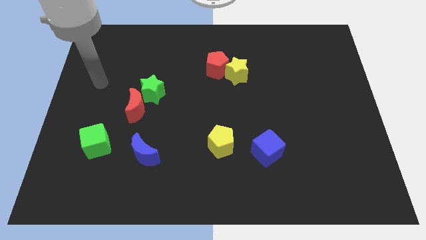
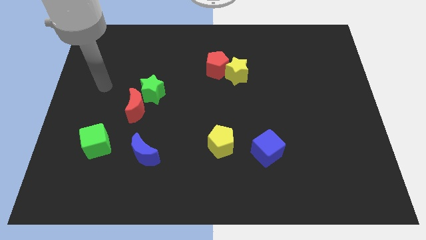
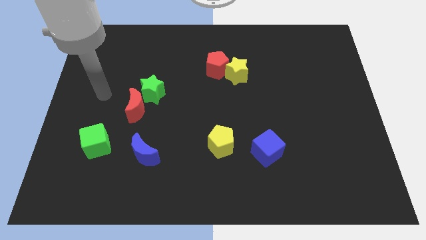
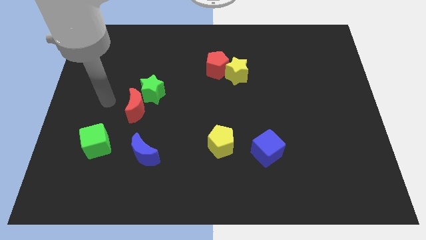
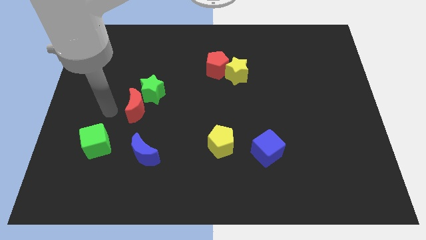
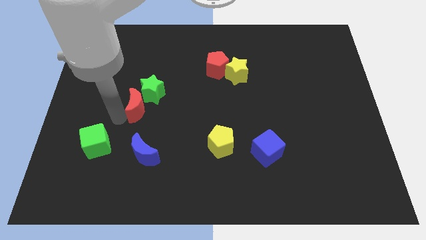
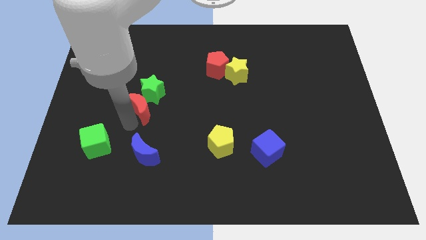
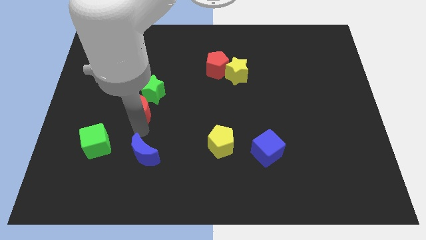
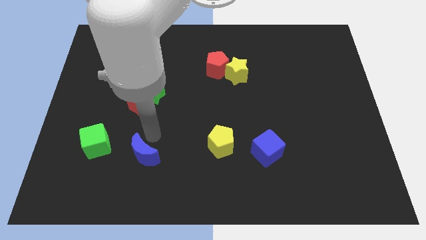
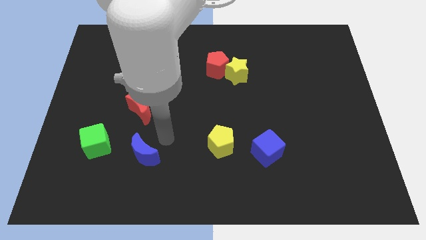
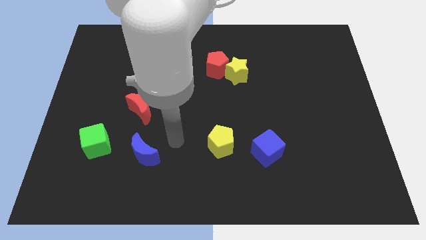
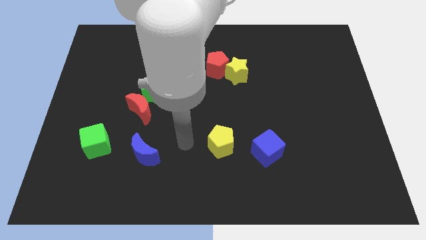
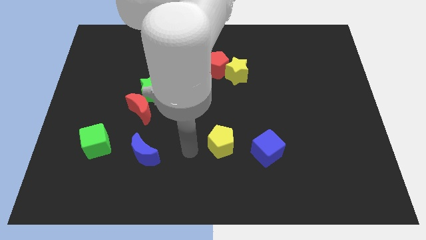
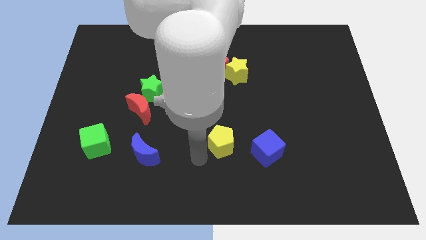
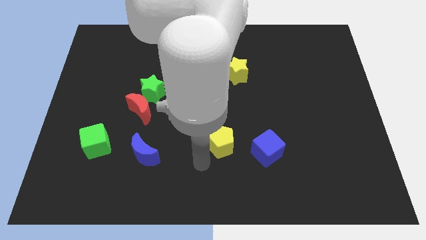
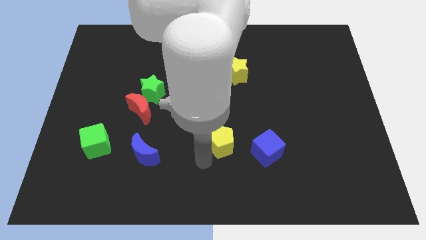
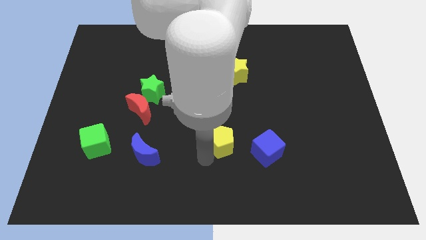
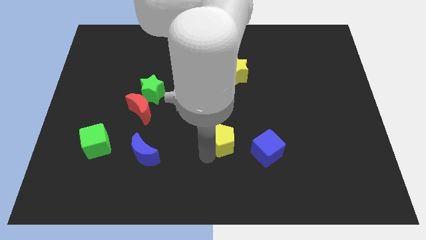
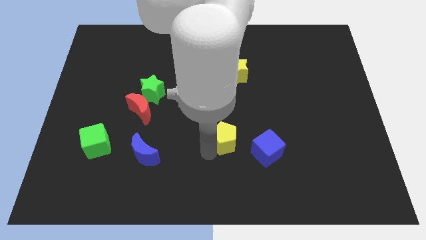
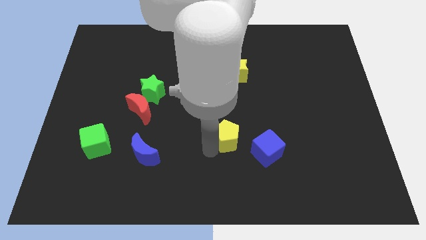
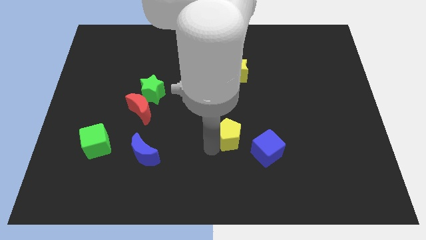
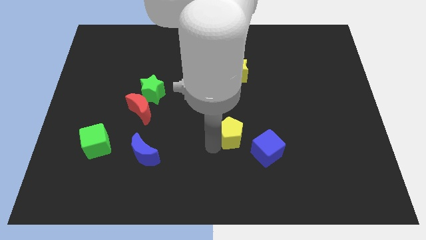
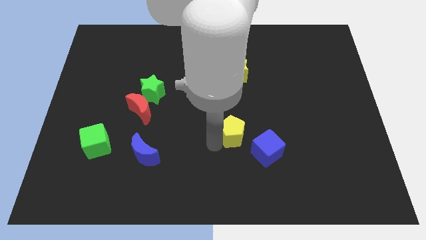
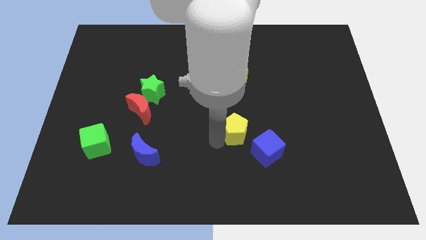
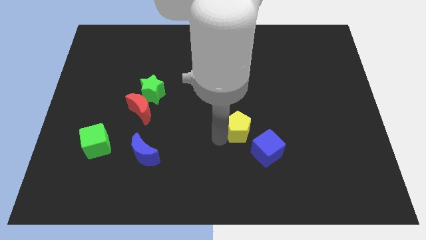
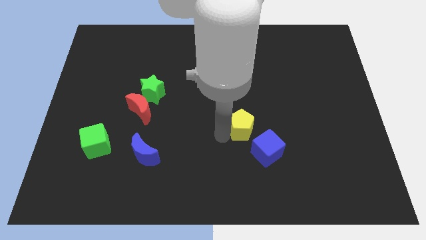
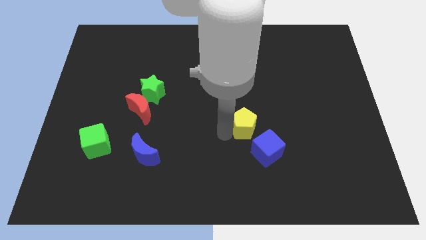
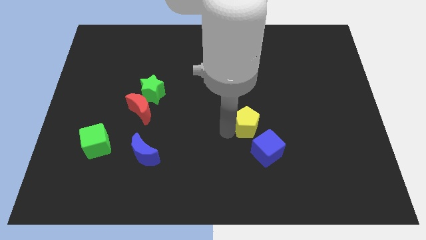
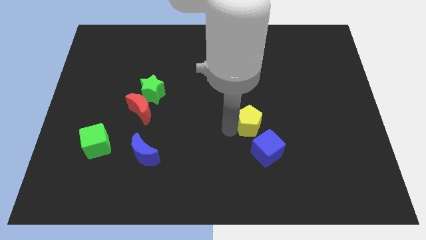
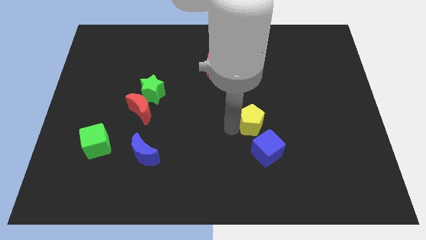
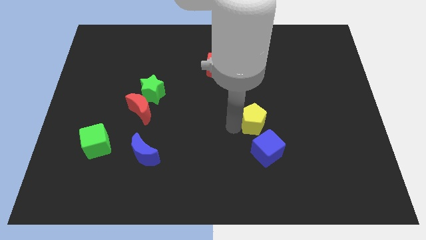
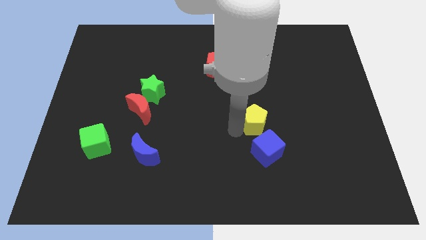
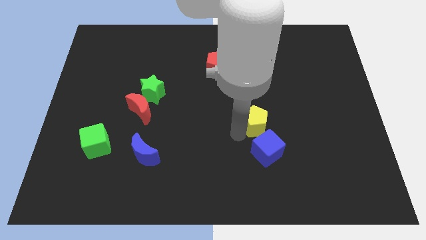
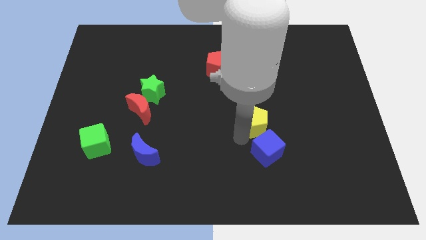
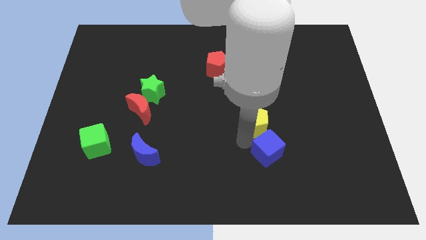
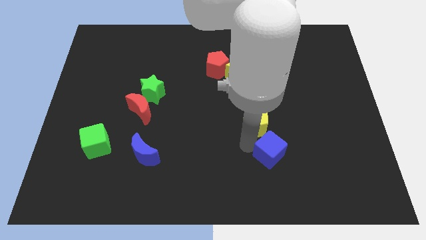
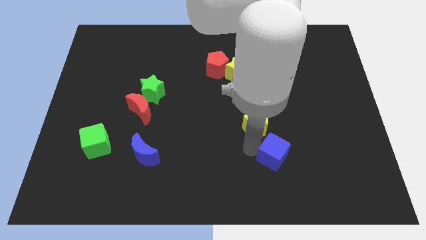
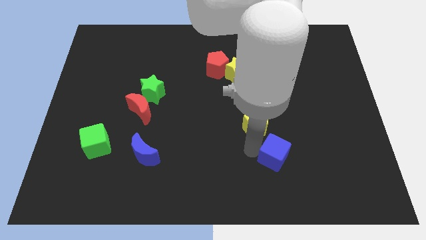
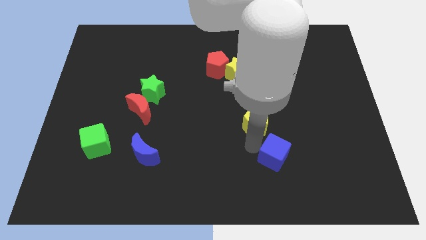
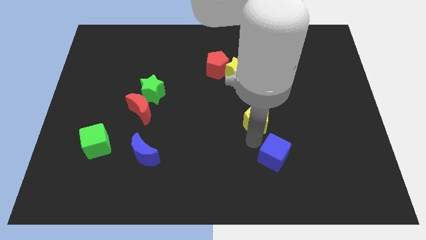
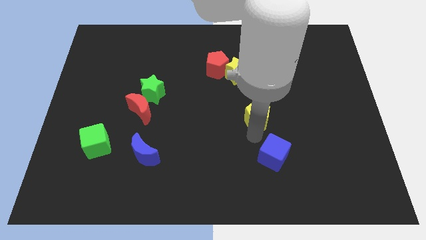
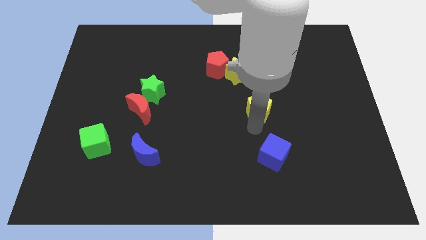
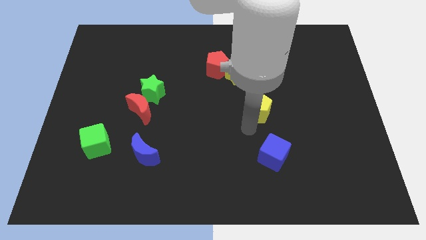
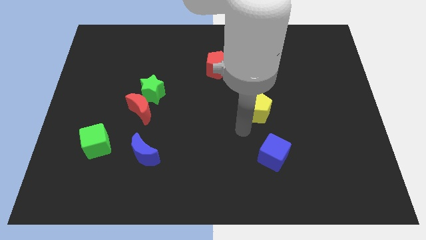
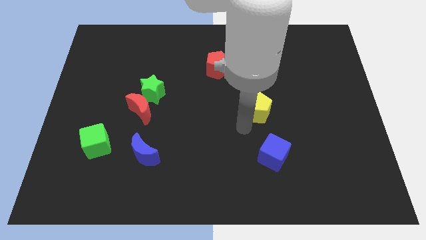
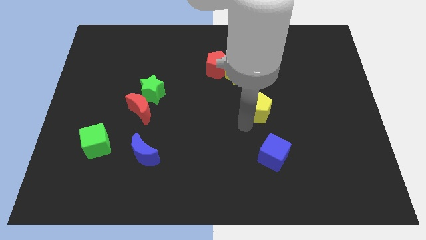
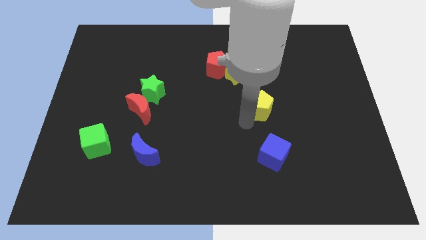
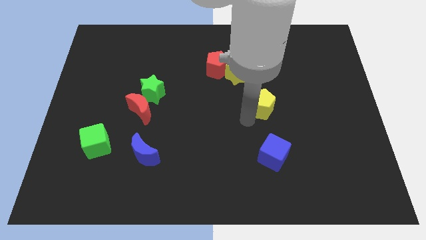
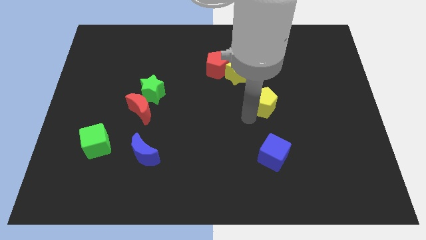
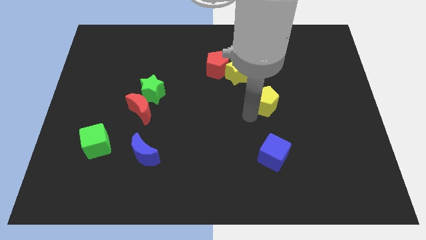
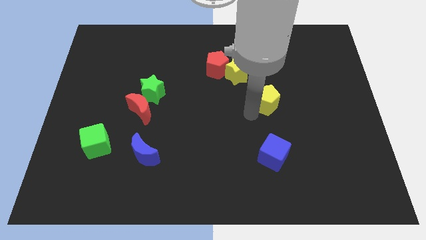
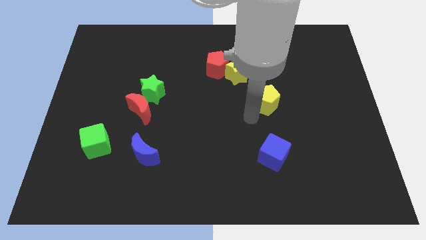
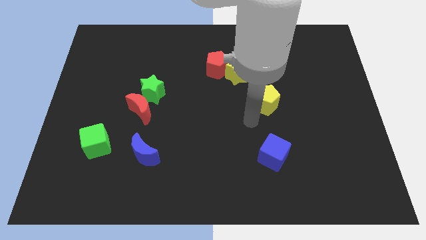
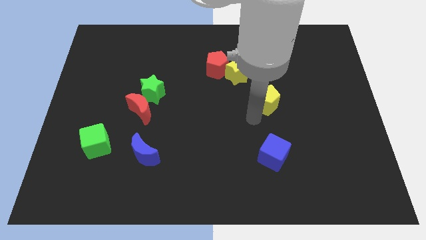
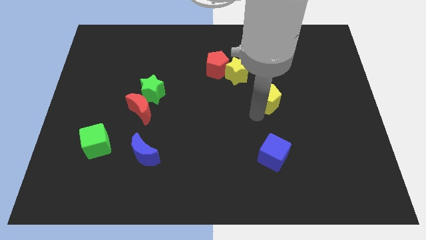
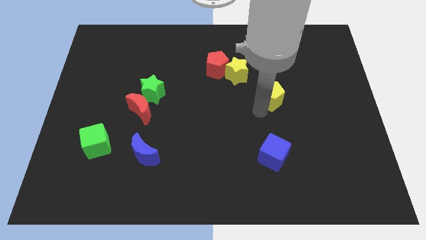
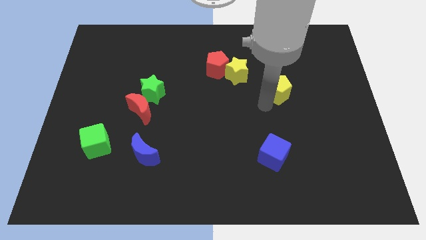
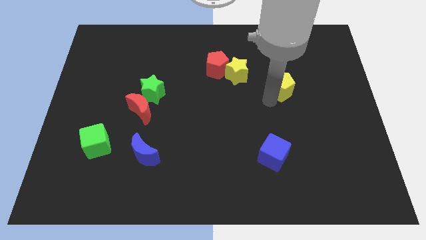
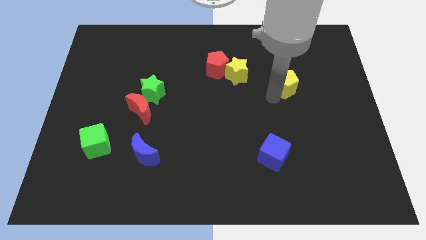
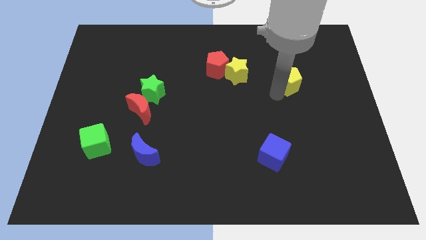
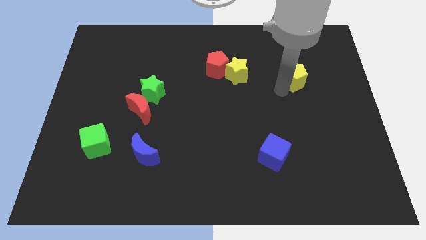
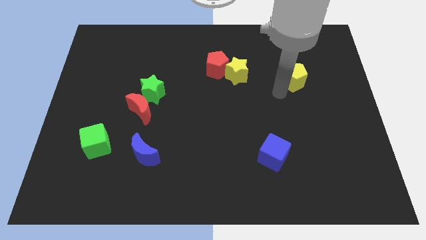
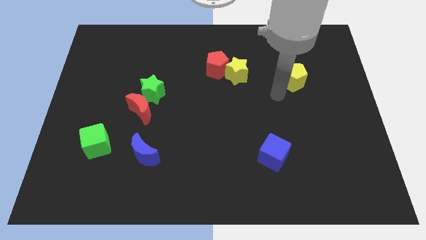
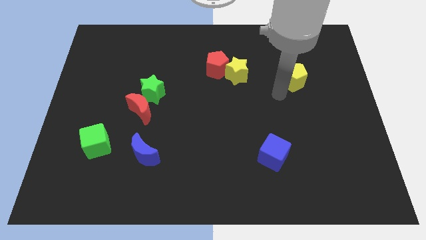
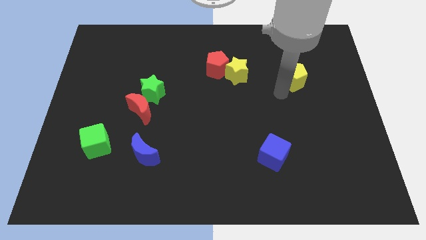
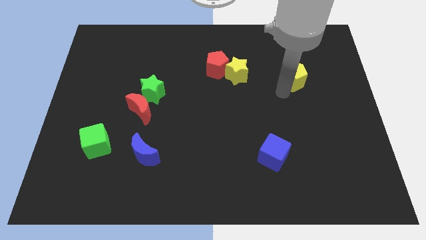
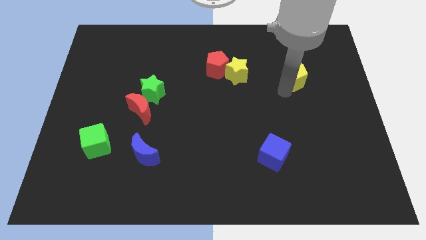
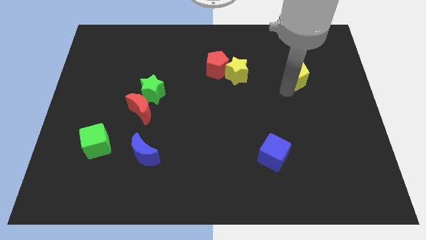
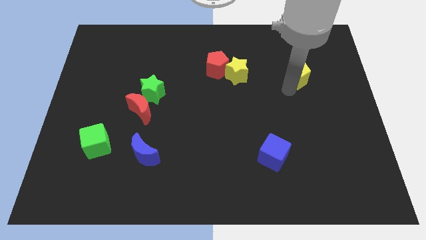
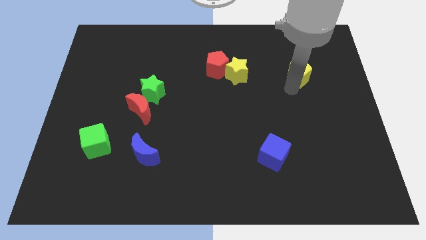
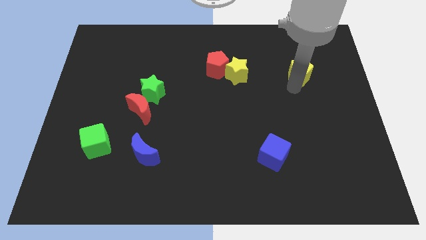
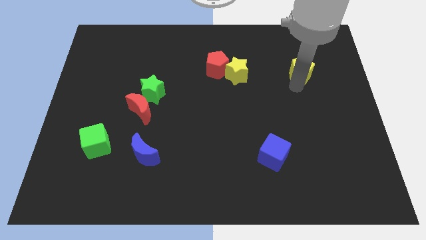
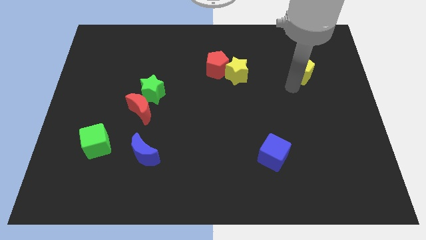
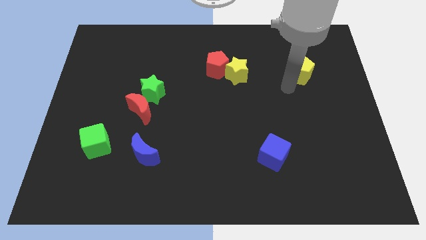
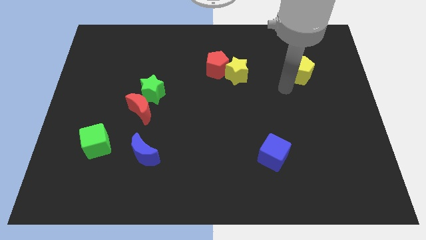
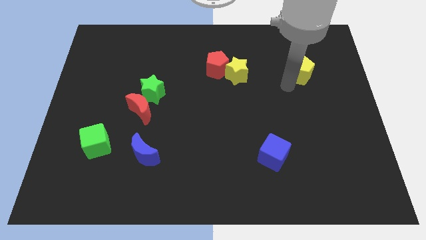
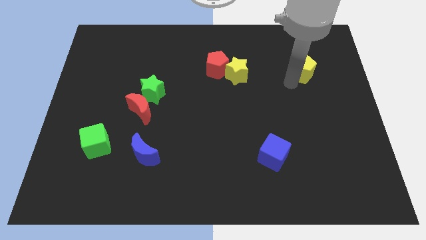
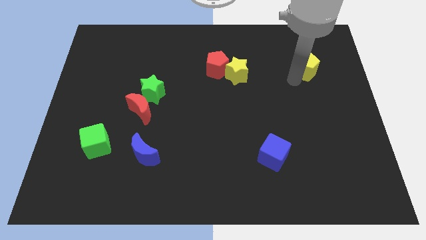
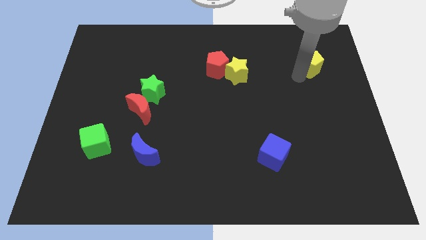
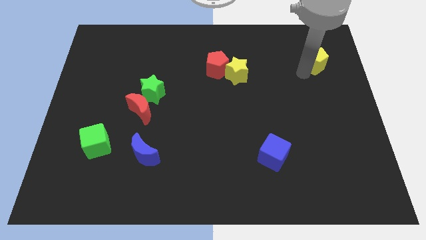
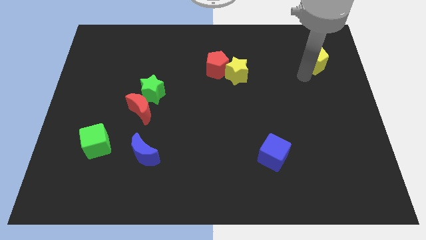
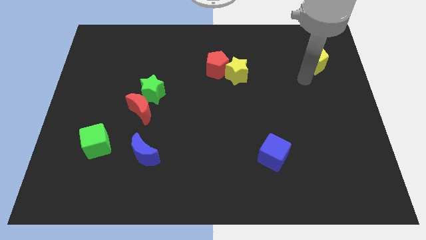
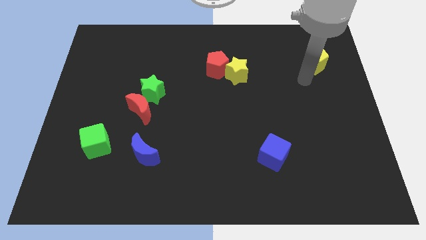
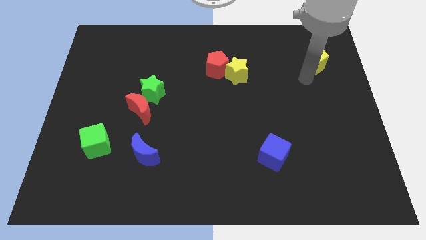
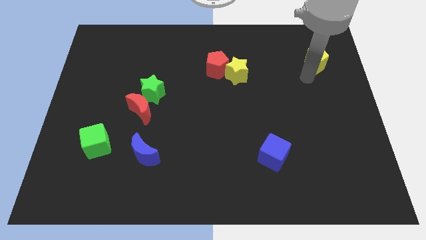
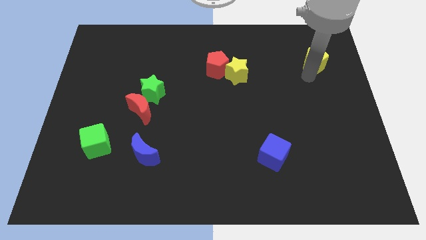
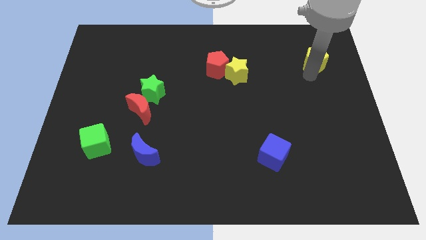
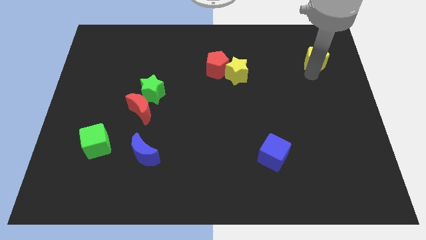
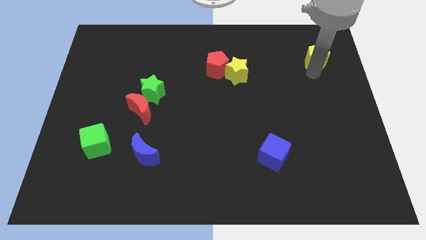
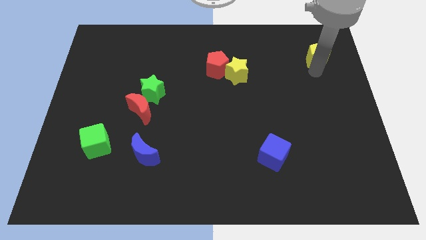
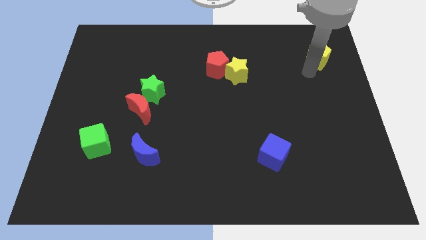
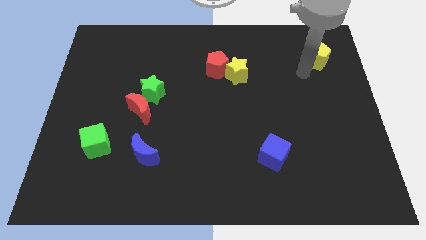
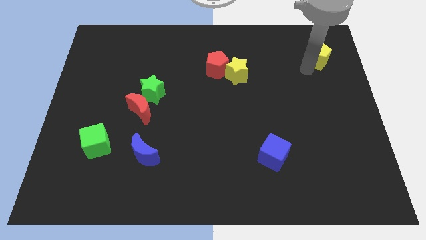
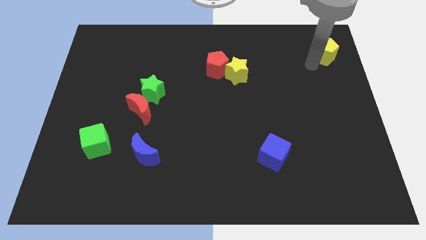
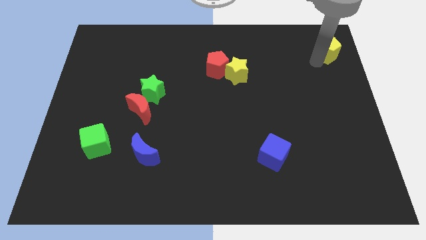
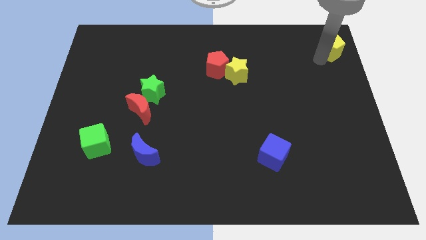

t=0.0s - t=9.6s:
move the yellow pentagon to the top right corner
